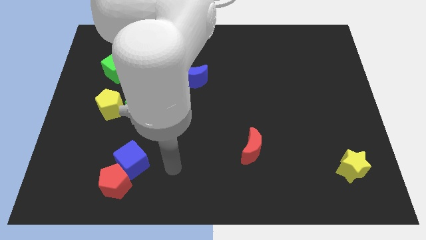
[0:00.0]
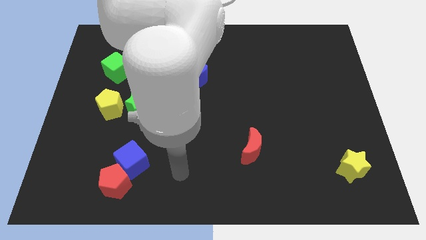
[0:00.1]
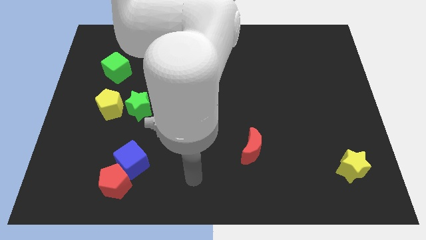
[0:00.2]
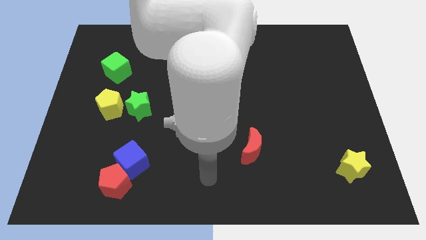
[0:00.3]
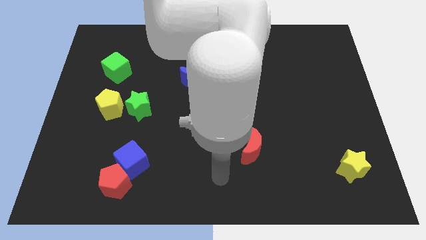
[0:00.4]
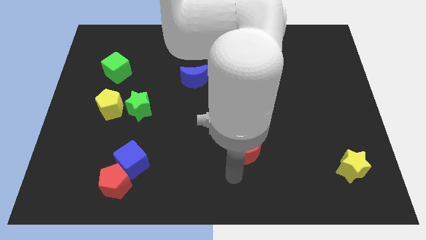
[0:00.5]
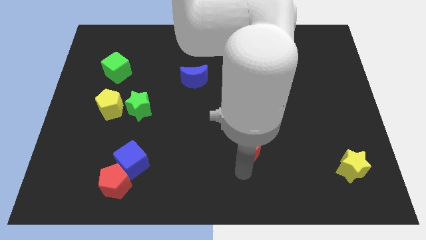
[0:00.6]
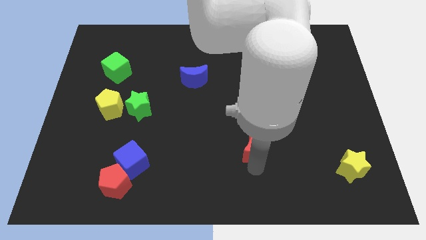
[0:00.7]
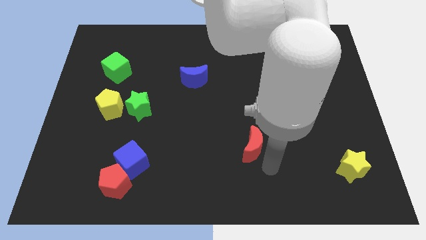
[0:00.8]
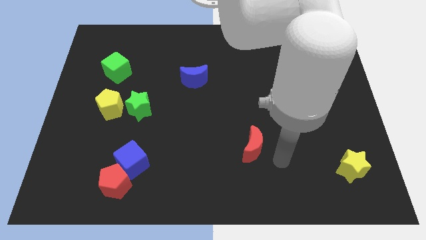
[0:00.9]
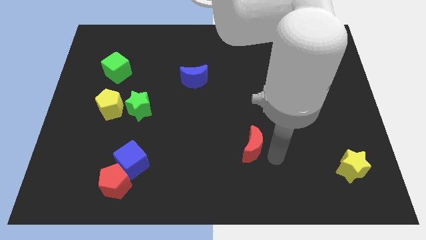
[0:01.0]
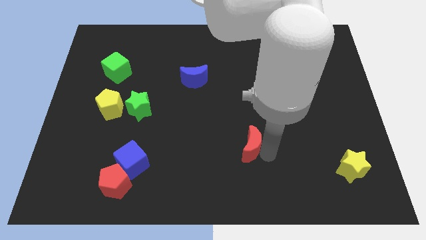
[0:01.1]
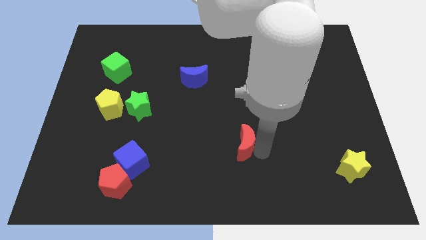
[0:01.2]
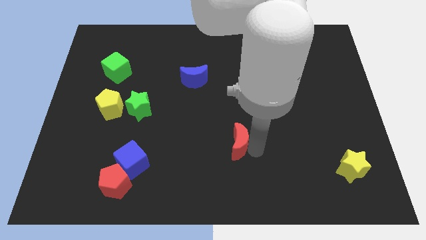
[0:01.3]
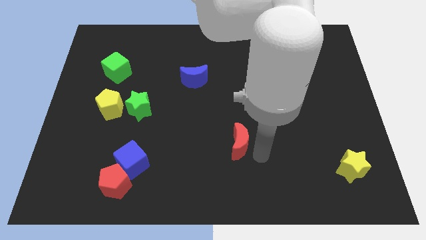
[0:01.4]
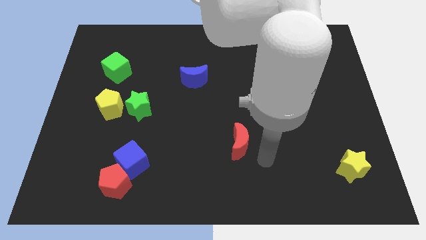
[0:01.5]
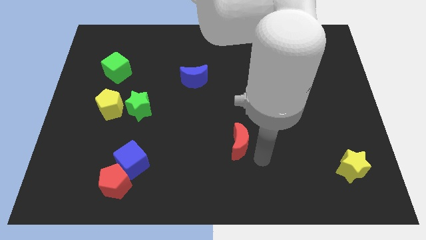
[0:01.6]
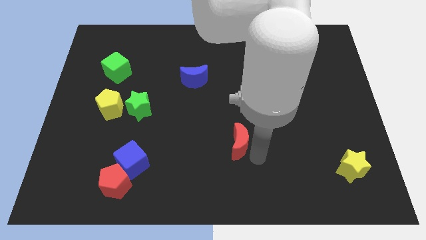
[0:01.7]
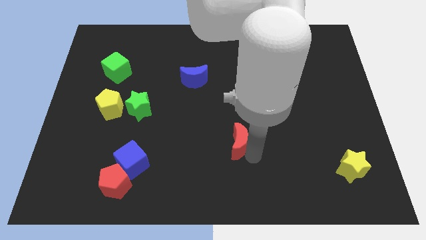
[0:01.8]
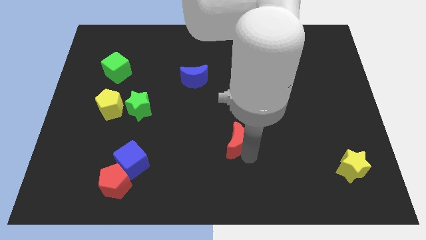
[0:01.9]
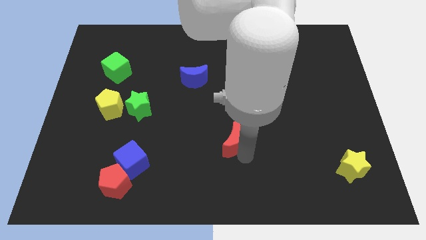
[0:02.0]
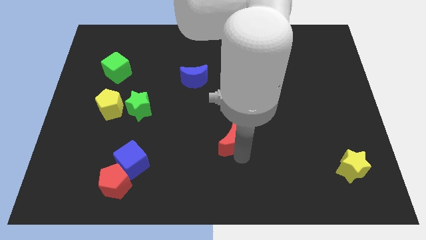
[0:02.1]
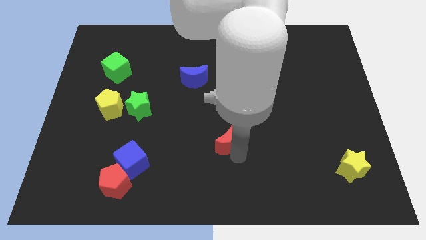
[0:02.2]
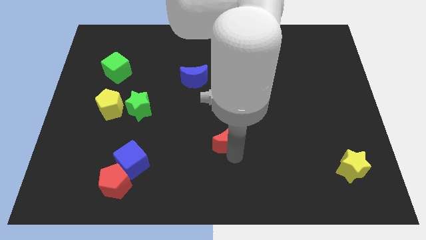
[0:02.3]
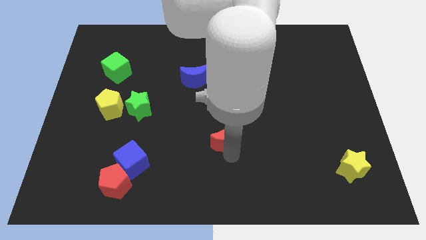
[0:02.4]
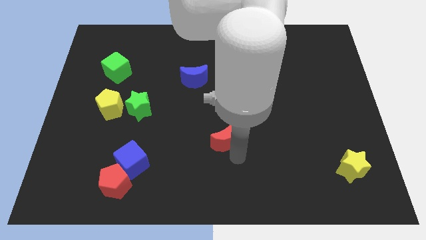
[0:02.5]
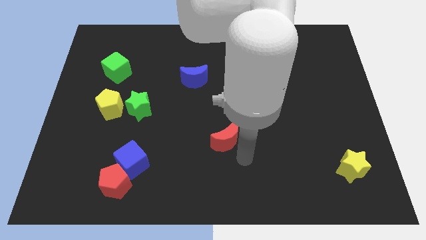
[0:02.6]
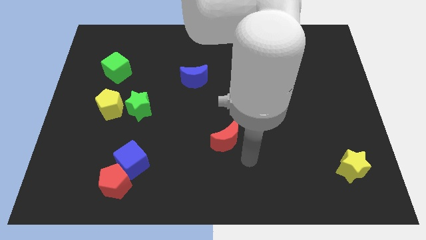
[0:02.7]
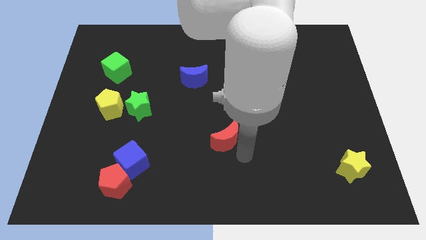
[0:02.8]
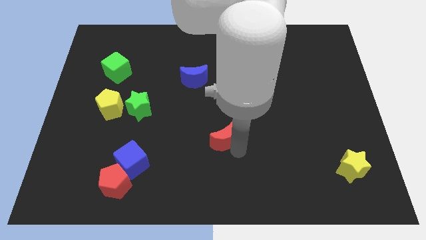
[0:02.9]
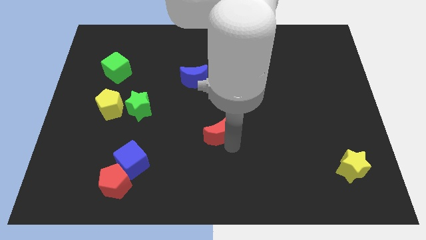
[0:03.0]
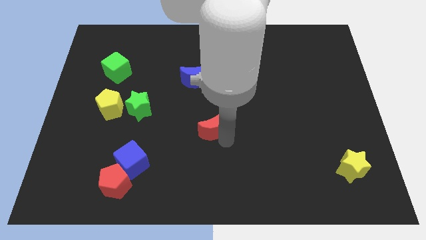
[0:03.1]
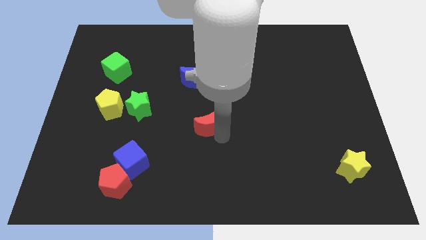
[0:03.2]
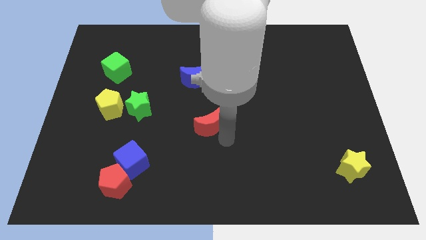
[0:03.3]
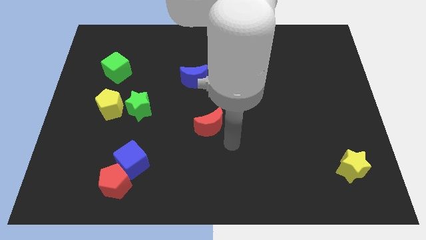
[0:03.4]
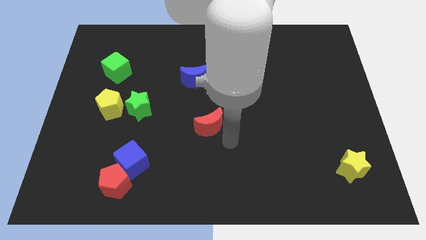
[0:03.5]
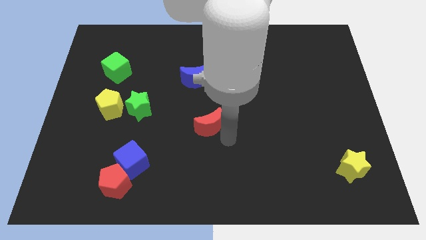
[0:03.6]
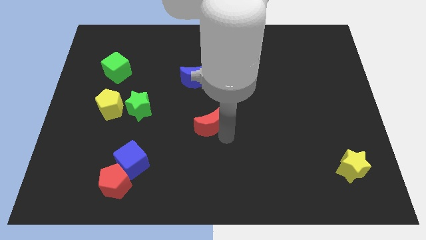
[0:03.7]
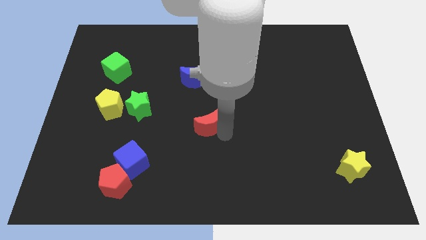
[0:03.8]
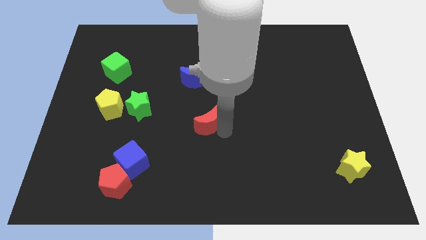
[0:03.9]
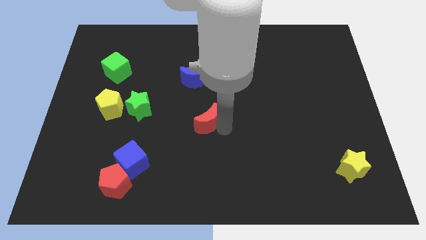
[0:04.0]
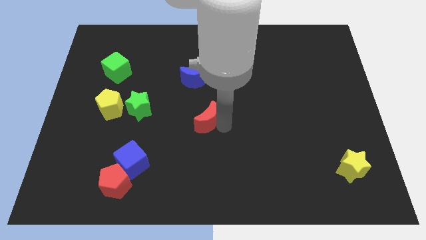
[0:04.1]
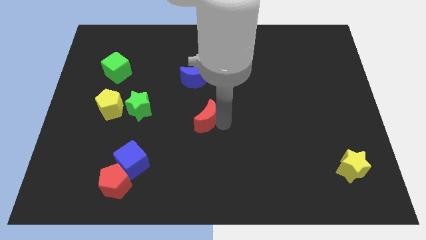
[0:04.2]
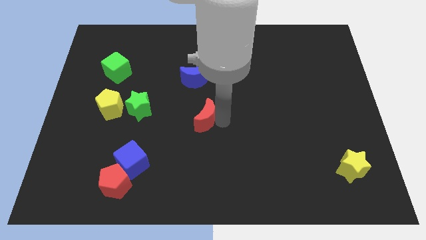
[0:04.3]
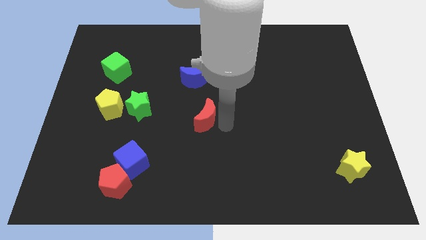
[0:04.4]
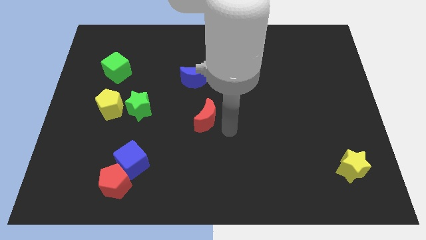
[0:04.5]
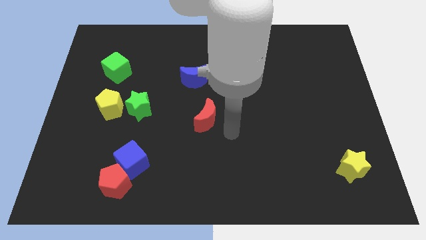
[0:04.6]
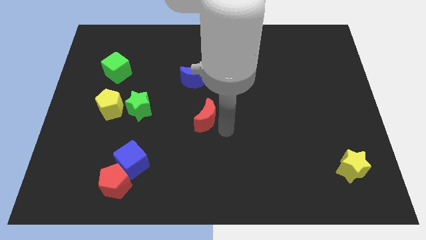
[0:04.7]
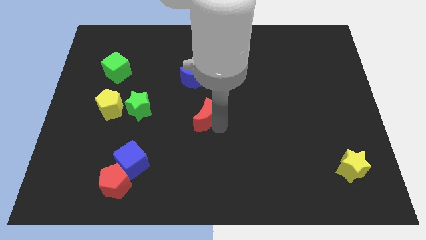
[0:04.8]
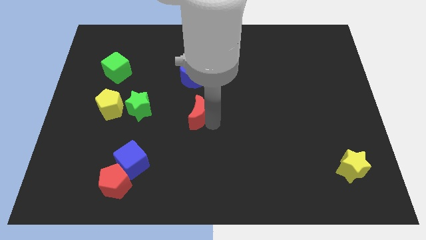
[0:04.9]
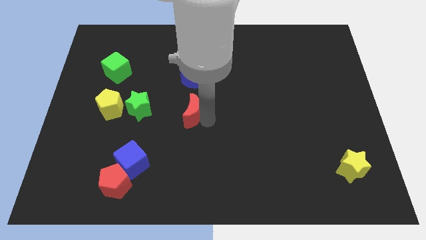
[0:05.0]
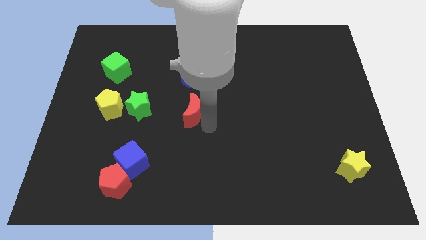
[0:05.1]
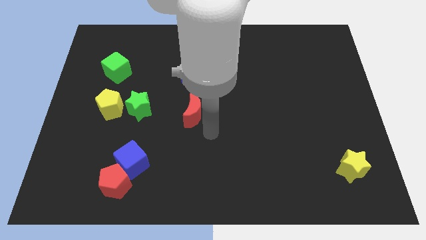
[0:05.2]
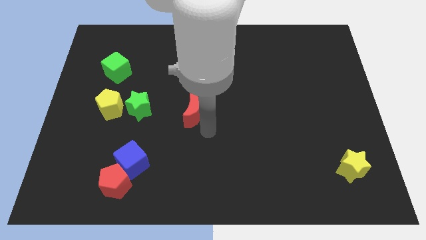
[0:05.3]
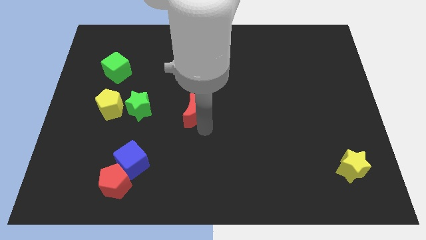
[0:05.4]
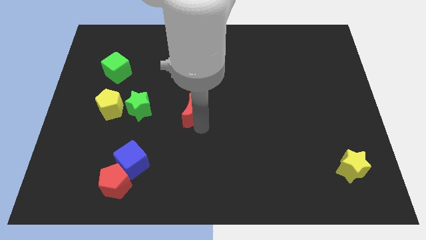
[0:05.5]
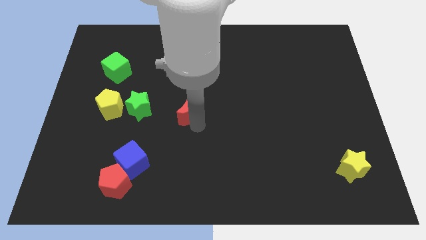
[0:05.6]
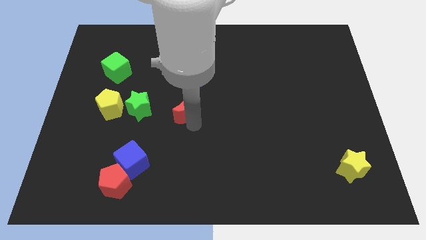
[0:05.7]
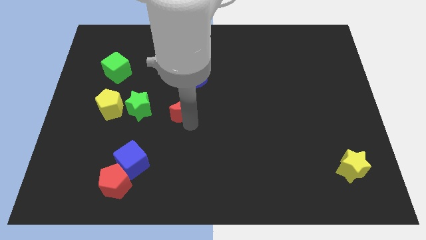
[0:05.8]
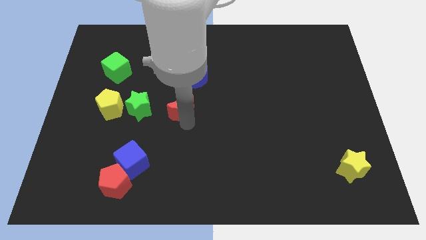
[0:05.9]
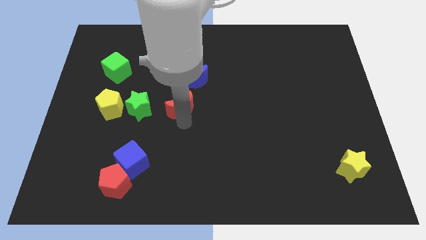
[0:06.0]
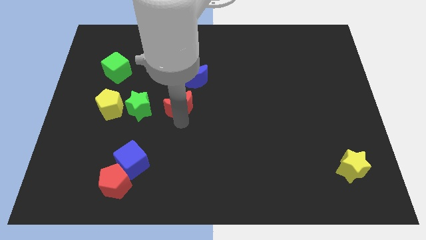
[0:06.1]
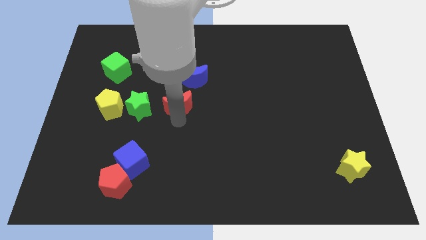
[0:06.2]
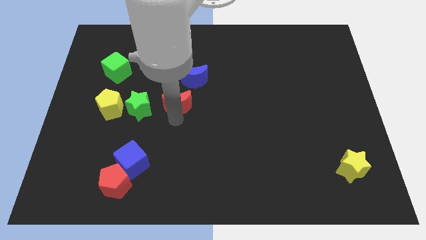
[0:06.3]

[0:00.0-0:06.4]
push the red moon up and left

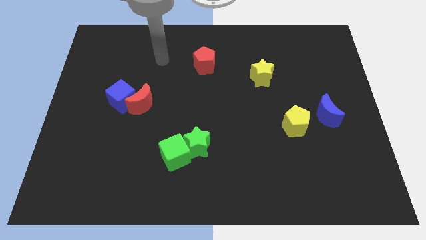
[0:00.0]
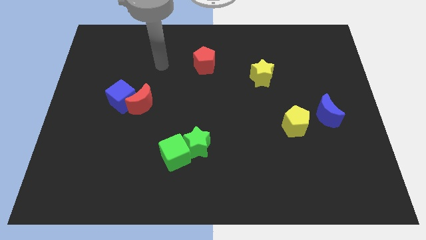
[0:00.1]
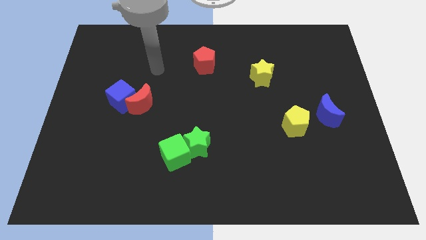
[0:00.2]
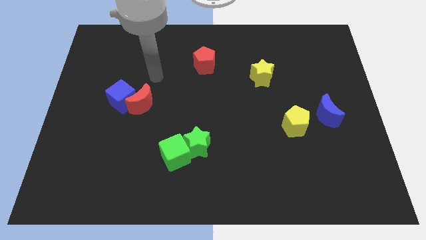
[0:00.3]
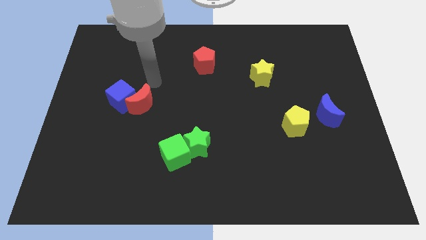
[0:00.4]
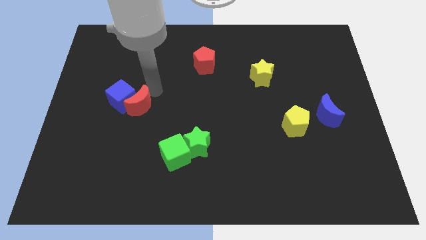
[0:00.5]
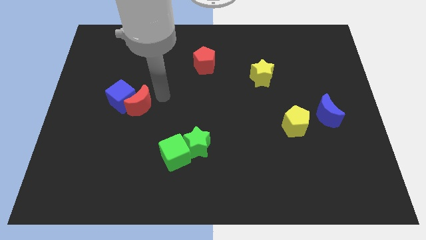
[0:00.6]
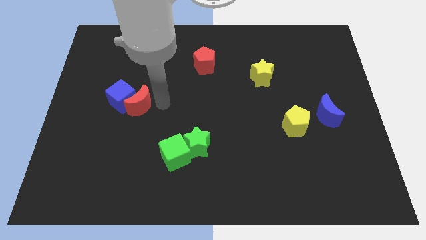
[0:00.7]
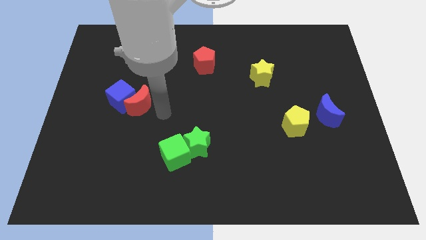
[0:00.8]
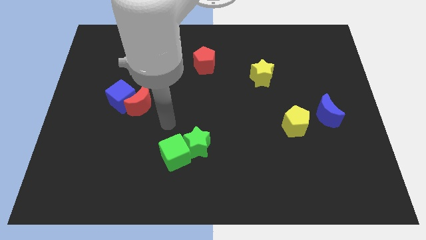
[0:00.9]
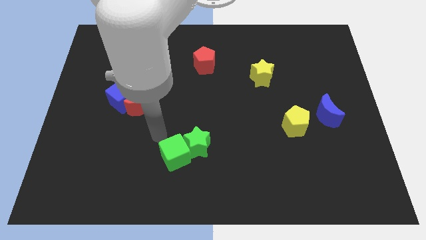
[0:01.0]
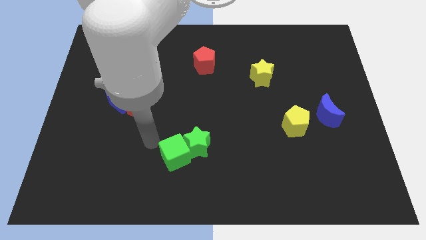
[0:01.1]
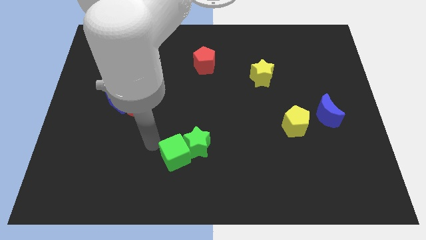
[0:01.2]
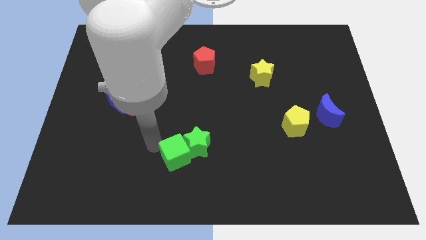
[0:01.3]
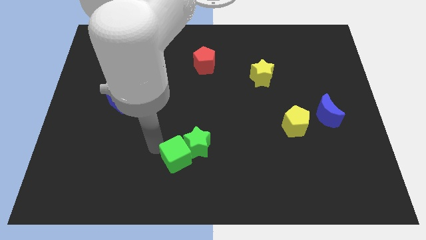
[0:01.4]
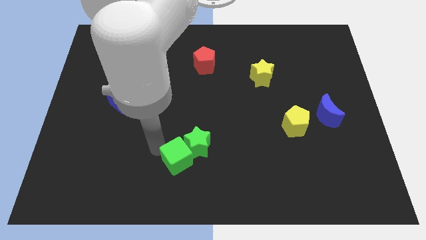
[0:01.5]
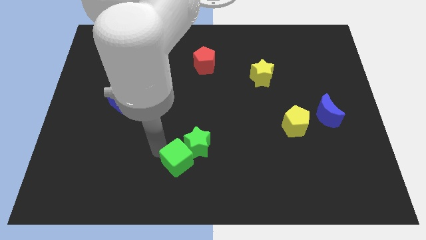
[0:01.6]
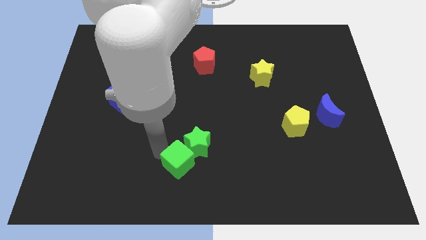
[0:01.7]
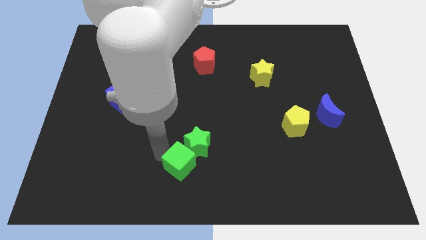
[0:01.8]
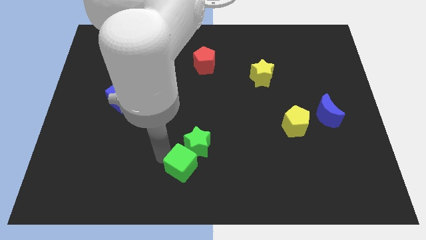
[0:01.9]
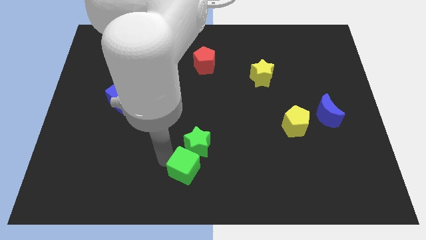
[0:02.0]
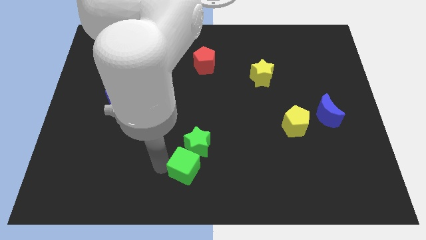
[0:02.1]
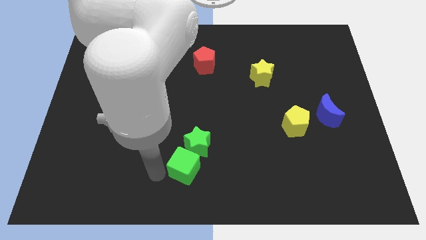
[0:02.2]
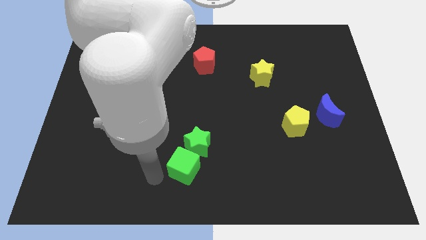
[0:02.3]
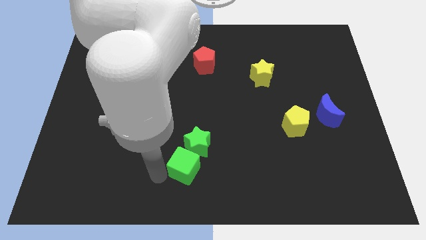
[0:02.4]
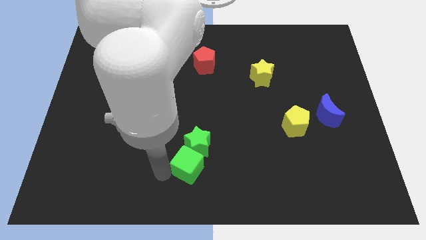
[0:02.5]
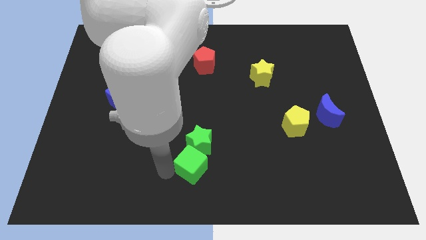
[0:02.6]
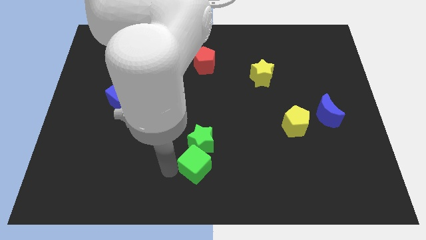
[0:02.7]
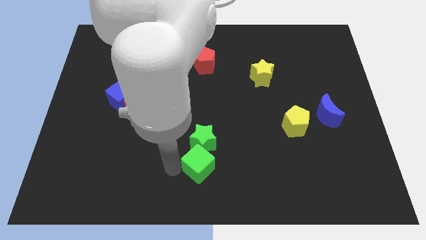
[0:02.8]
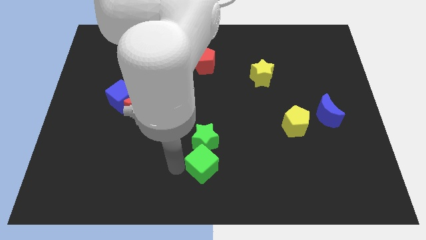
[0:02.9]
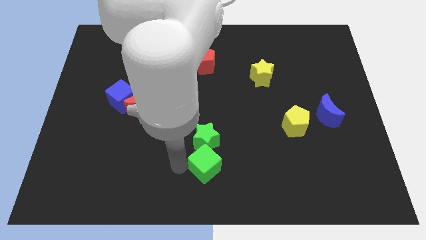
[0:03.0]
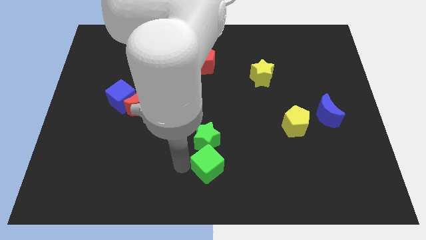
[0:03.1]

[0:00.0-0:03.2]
slide the green cube right slightly
